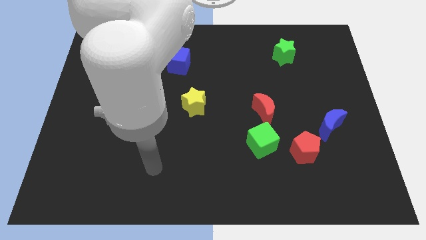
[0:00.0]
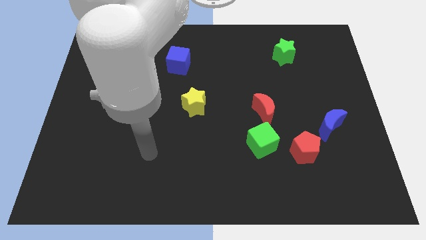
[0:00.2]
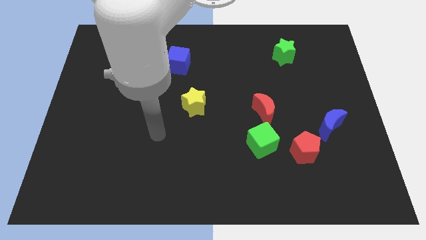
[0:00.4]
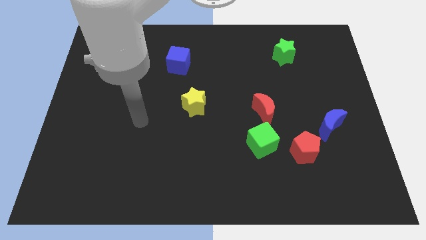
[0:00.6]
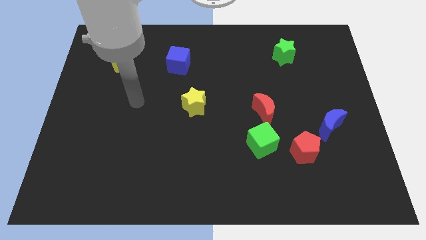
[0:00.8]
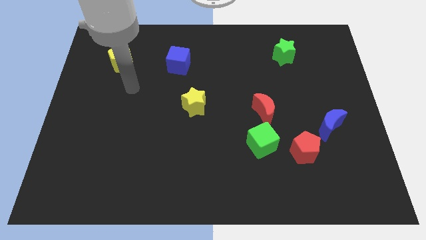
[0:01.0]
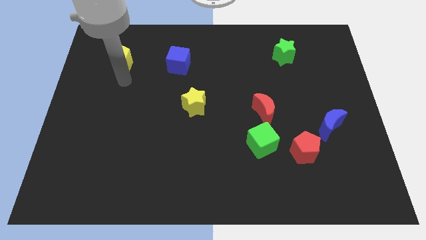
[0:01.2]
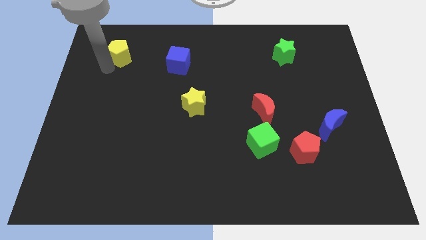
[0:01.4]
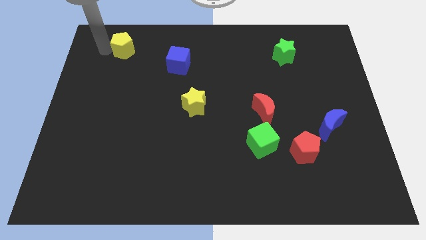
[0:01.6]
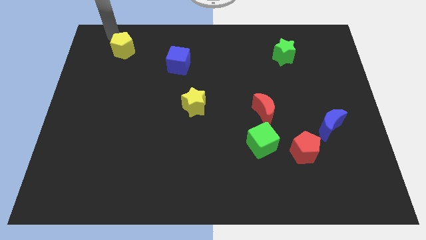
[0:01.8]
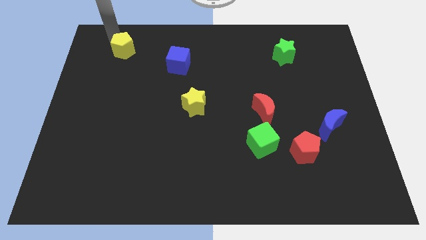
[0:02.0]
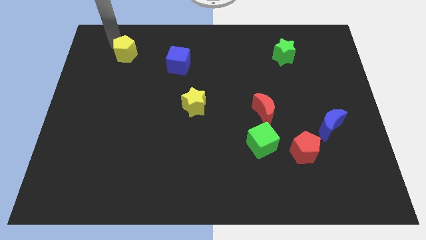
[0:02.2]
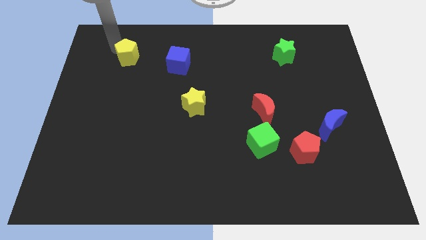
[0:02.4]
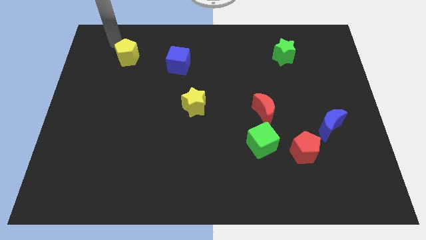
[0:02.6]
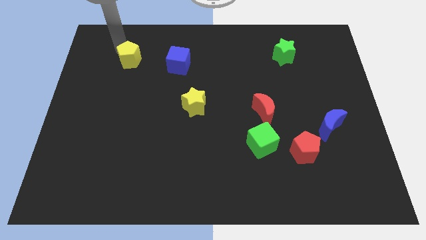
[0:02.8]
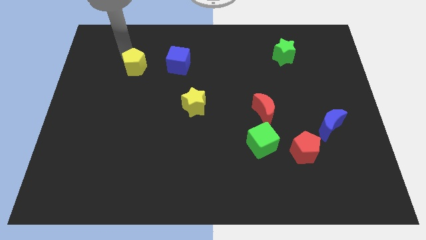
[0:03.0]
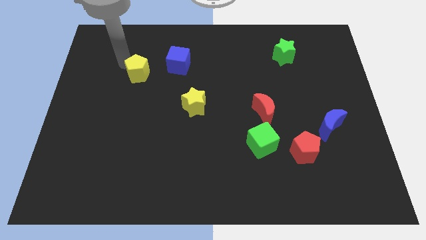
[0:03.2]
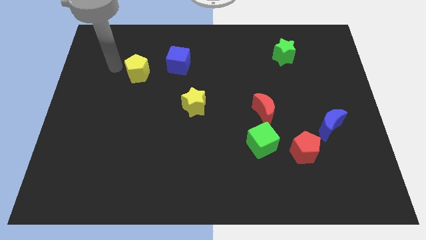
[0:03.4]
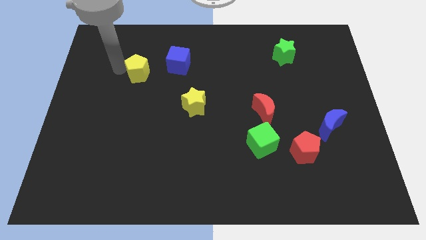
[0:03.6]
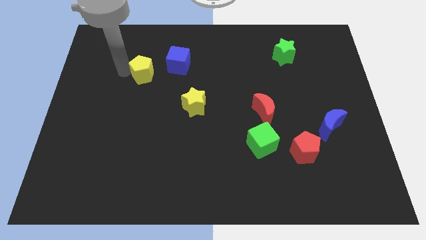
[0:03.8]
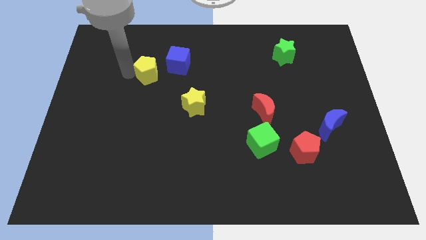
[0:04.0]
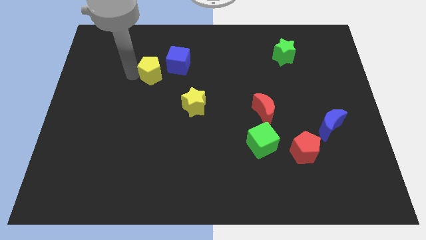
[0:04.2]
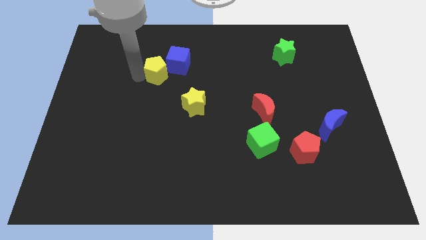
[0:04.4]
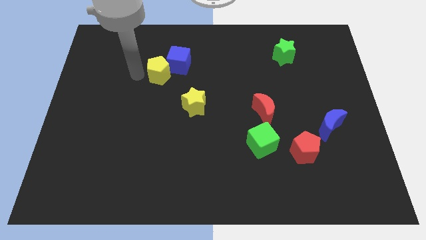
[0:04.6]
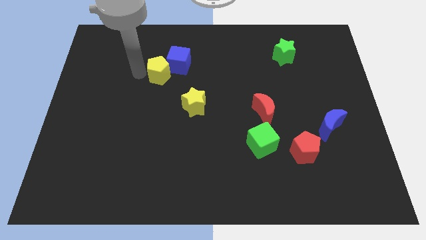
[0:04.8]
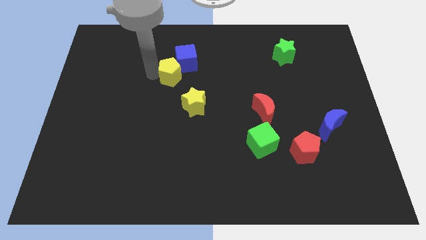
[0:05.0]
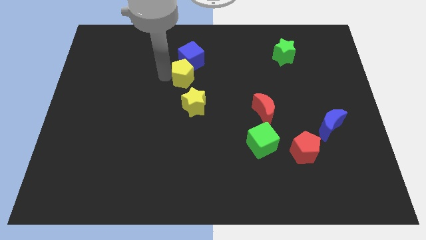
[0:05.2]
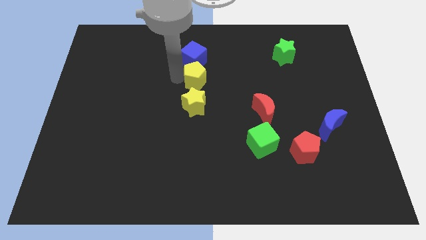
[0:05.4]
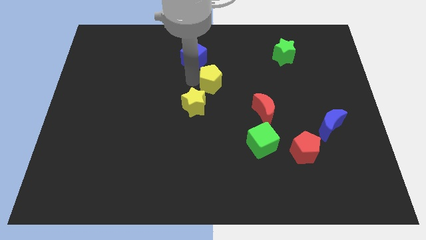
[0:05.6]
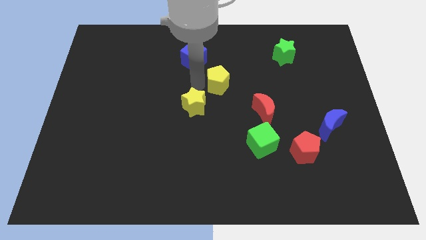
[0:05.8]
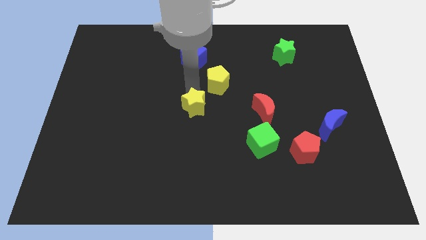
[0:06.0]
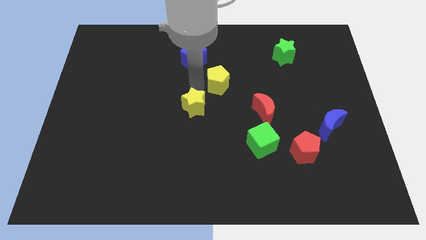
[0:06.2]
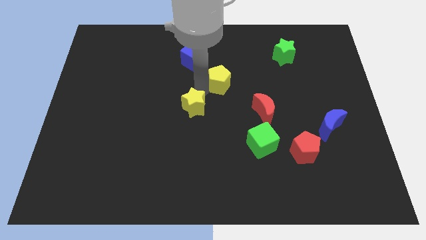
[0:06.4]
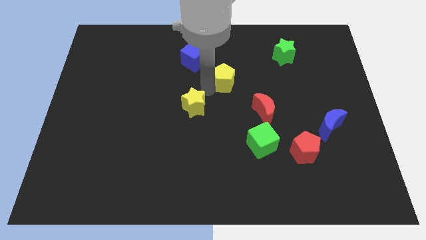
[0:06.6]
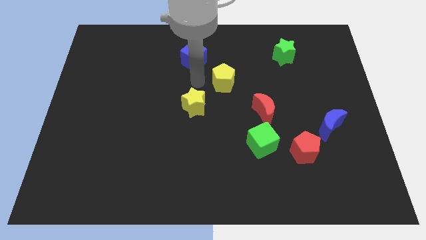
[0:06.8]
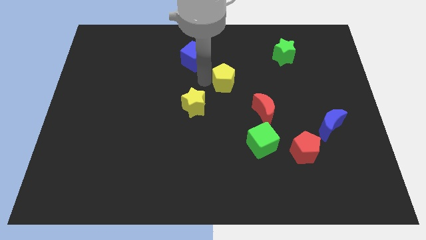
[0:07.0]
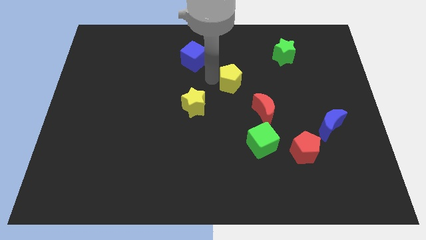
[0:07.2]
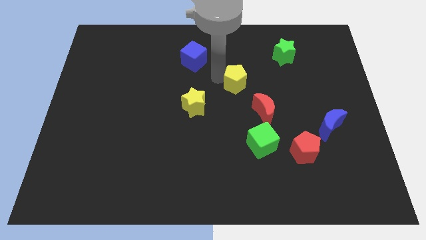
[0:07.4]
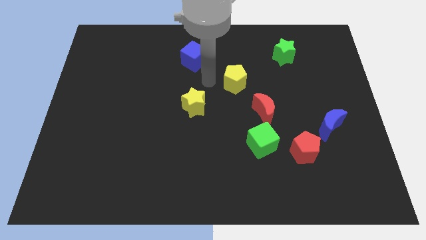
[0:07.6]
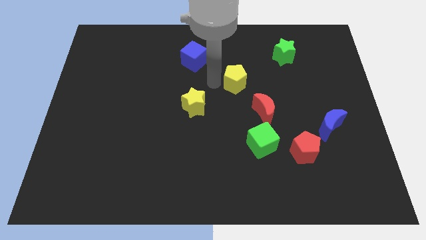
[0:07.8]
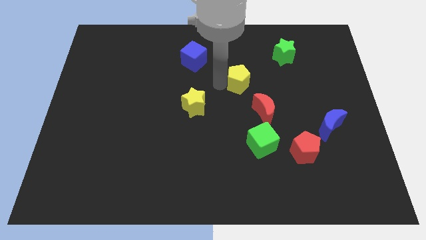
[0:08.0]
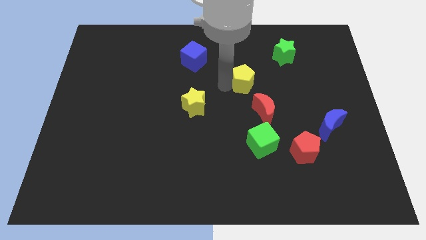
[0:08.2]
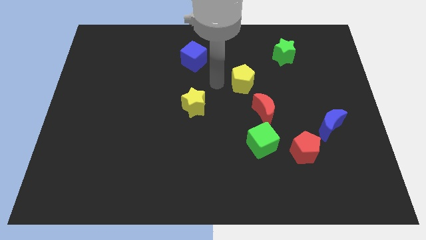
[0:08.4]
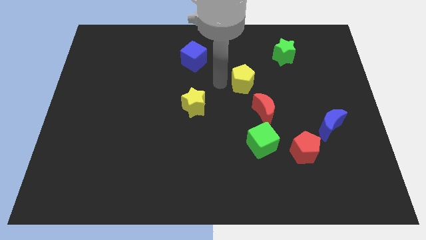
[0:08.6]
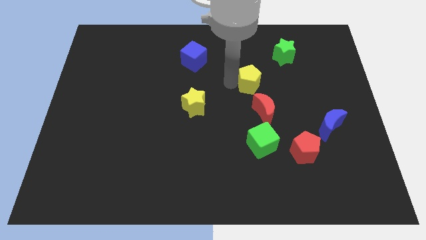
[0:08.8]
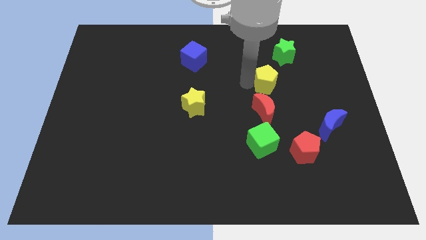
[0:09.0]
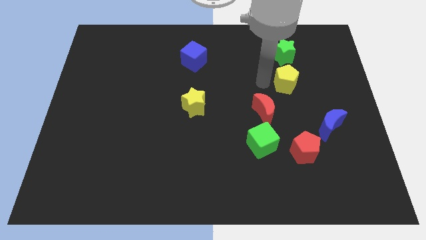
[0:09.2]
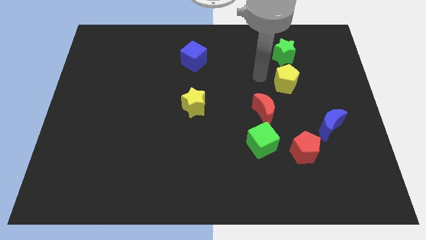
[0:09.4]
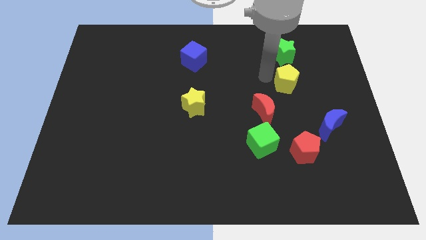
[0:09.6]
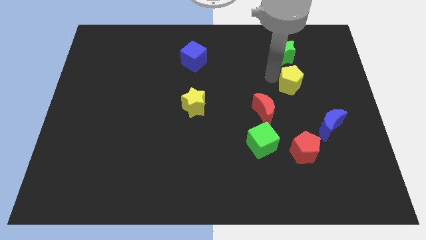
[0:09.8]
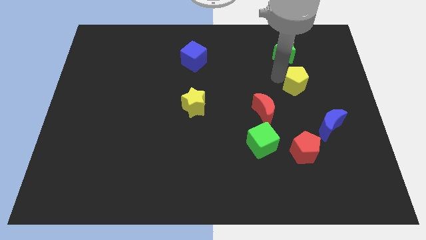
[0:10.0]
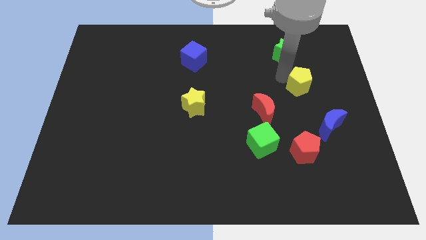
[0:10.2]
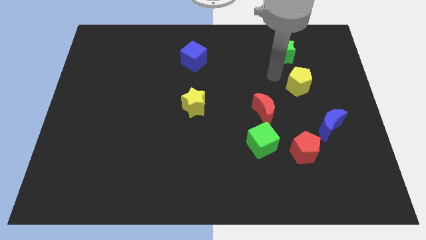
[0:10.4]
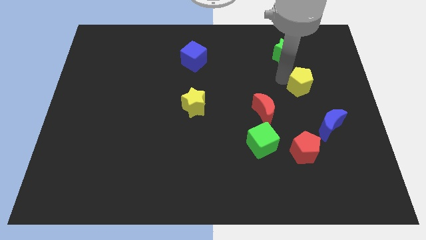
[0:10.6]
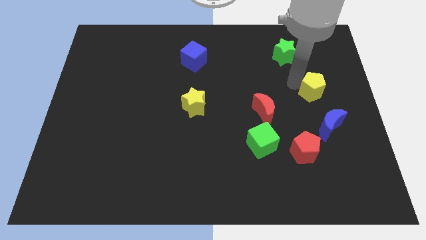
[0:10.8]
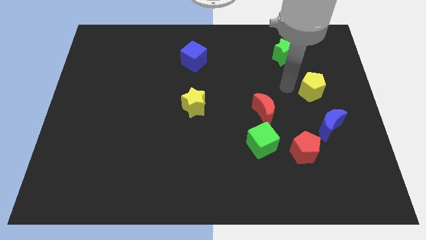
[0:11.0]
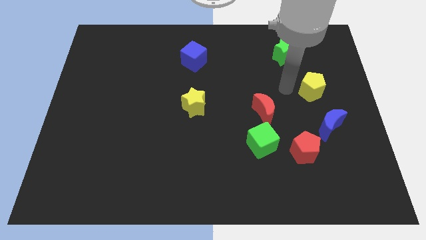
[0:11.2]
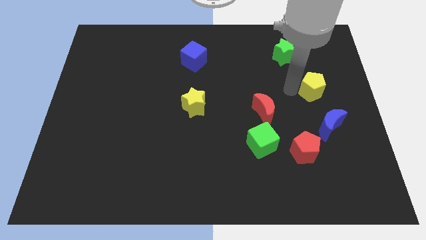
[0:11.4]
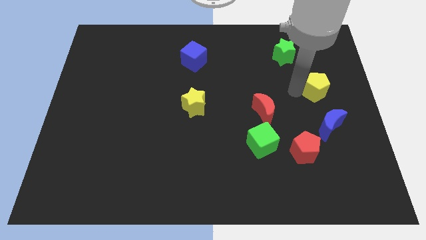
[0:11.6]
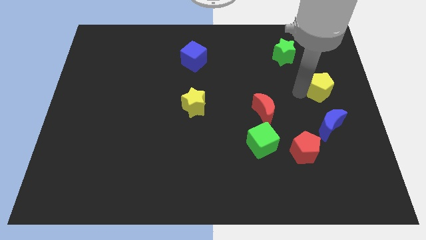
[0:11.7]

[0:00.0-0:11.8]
slide the yellow pentagon to the right side
